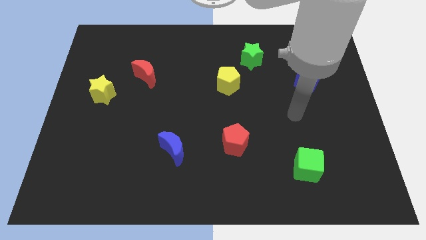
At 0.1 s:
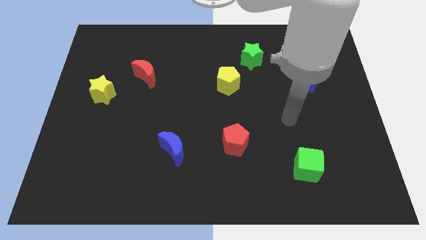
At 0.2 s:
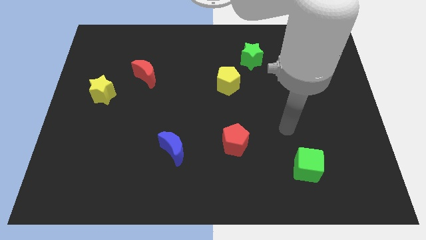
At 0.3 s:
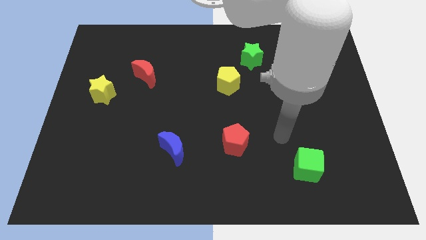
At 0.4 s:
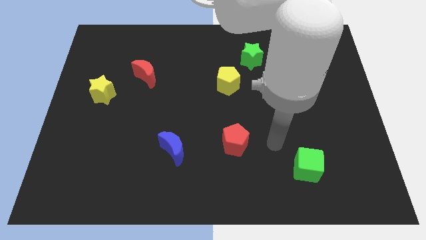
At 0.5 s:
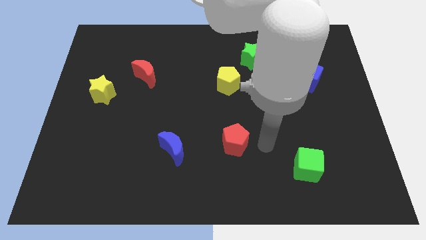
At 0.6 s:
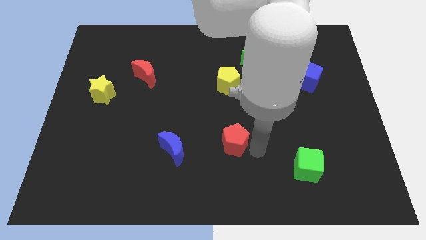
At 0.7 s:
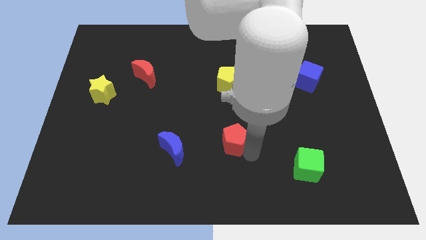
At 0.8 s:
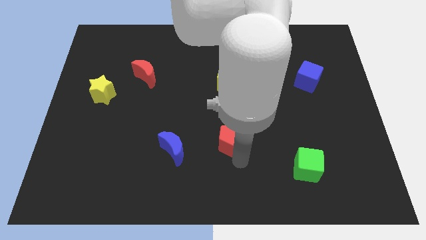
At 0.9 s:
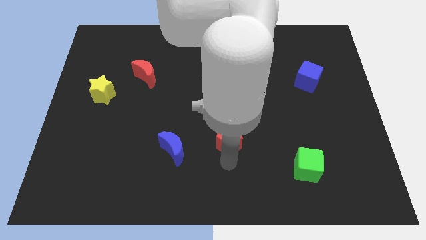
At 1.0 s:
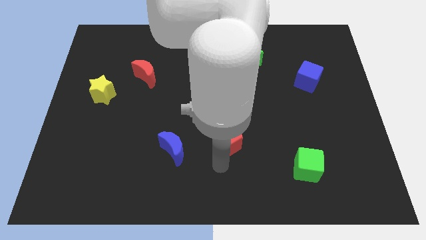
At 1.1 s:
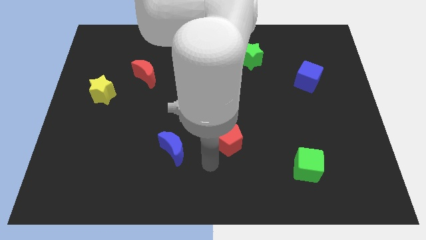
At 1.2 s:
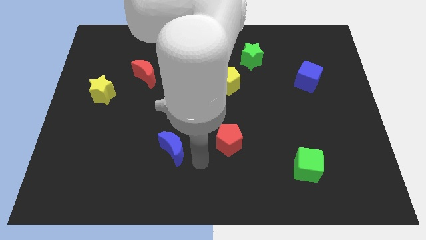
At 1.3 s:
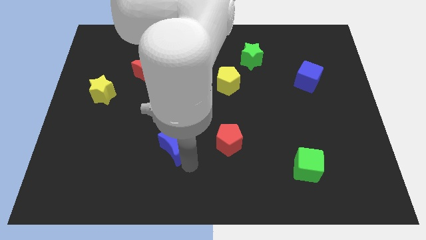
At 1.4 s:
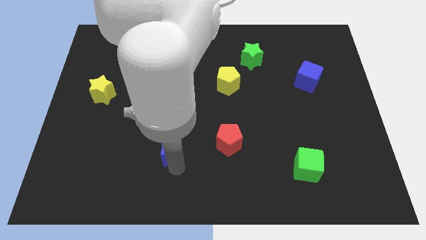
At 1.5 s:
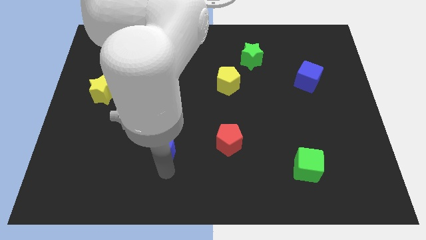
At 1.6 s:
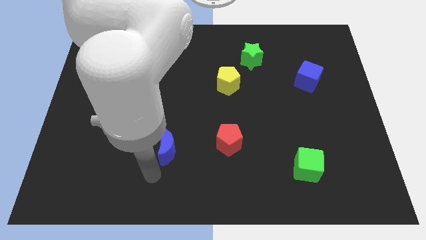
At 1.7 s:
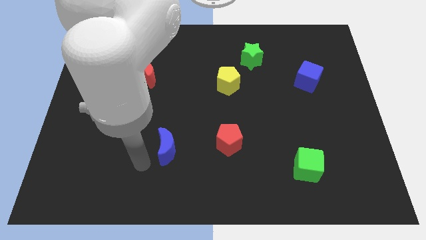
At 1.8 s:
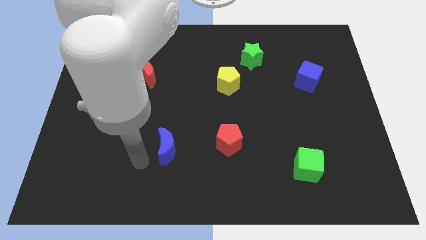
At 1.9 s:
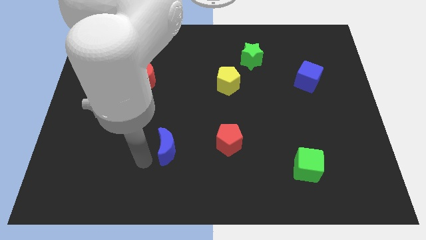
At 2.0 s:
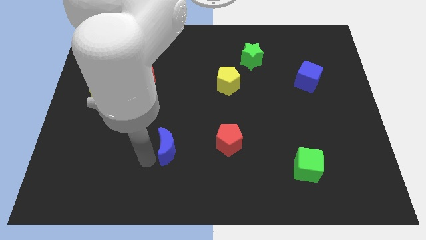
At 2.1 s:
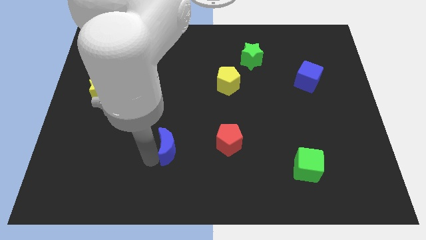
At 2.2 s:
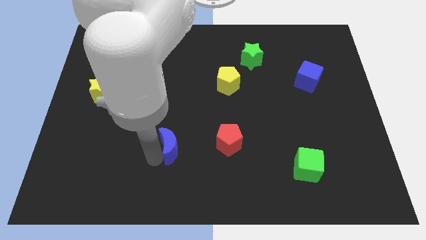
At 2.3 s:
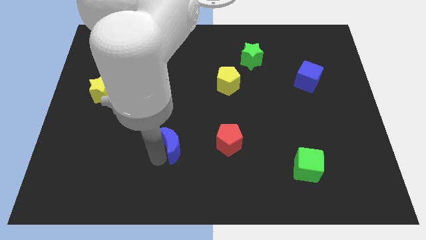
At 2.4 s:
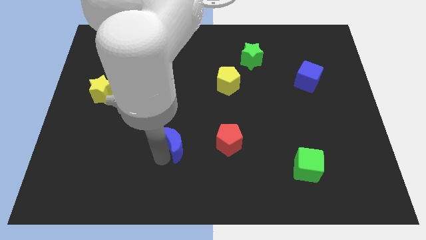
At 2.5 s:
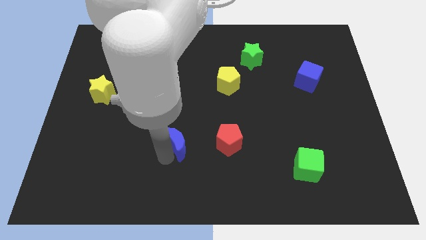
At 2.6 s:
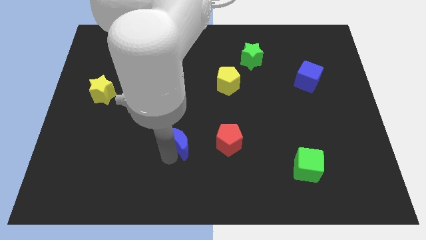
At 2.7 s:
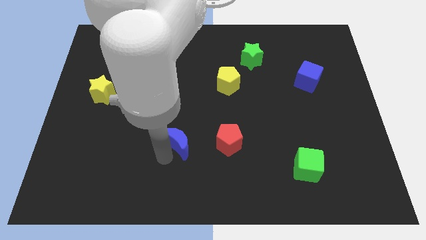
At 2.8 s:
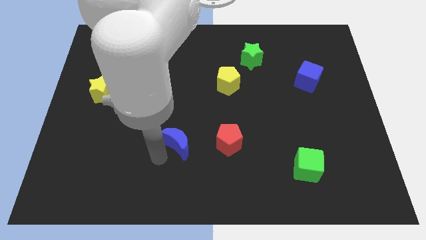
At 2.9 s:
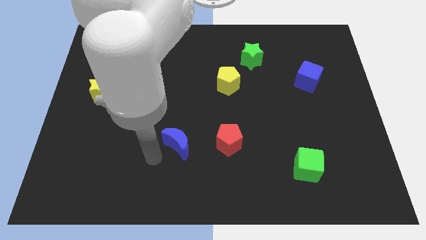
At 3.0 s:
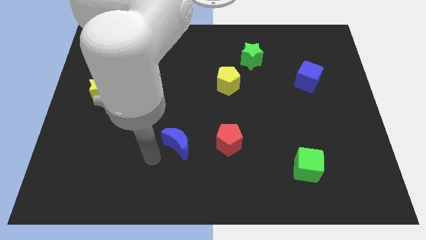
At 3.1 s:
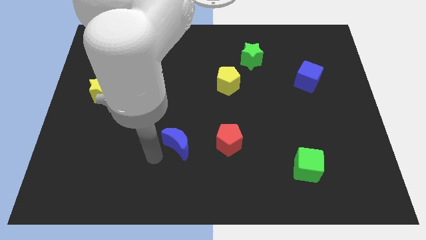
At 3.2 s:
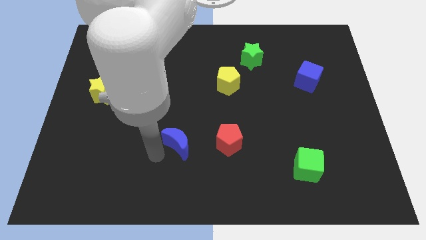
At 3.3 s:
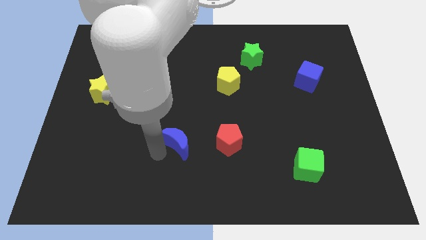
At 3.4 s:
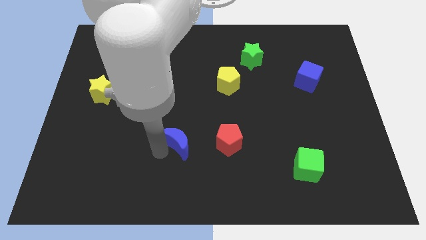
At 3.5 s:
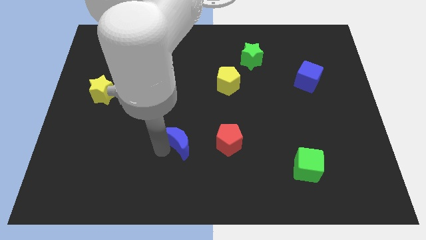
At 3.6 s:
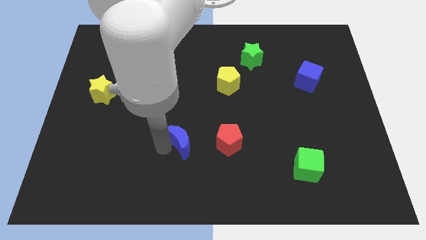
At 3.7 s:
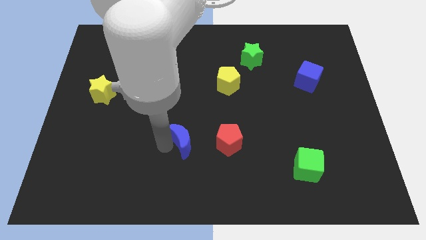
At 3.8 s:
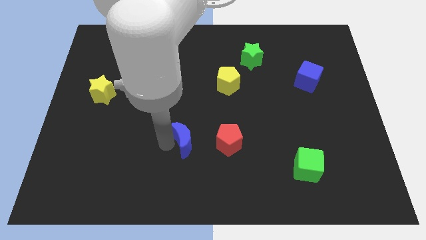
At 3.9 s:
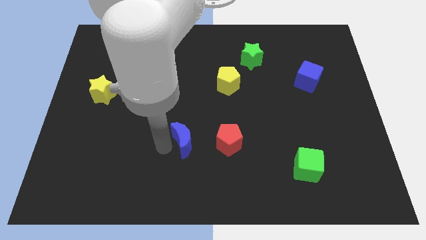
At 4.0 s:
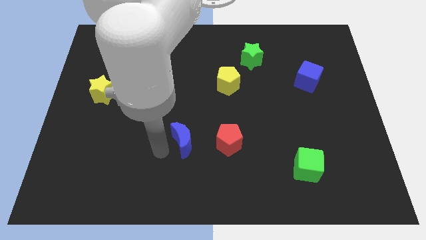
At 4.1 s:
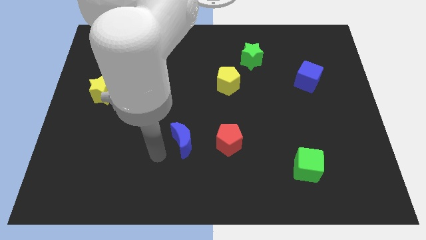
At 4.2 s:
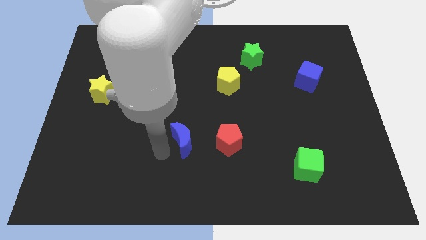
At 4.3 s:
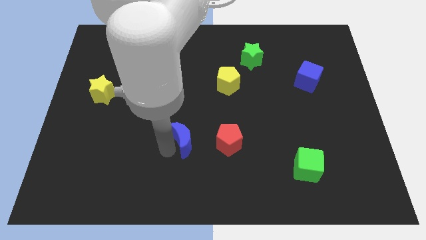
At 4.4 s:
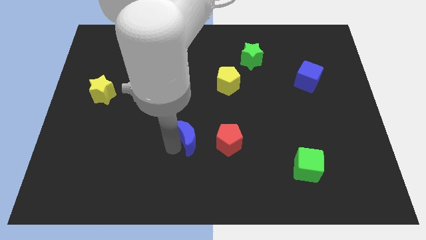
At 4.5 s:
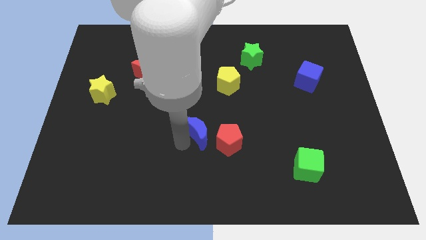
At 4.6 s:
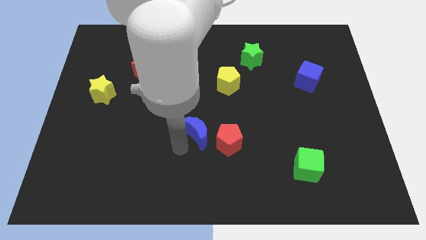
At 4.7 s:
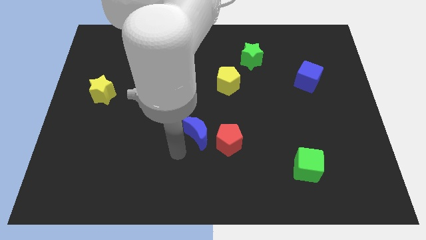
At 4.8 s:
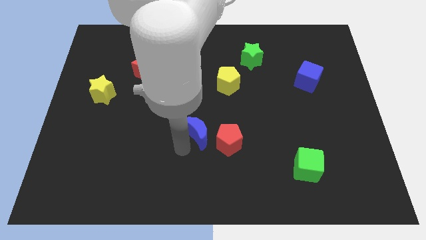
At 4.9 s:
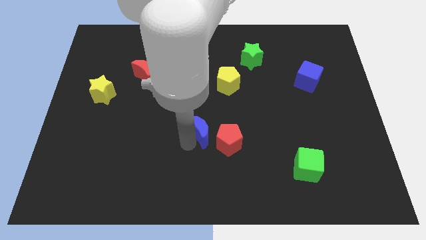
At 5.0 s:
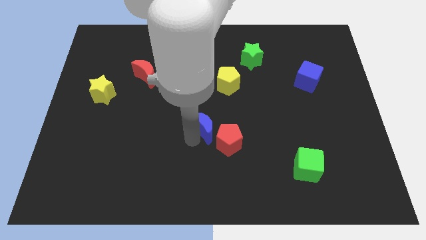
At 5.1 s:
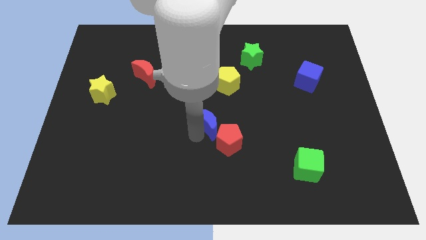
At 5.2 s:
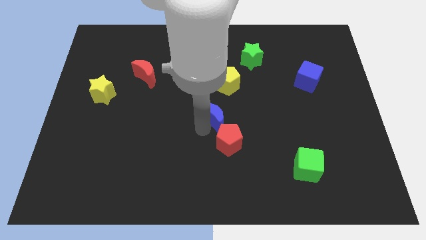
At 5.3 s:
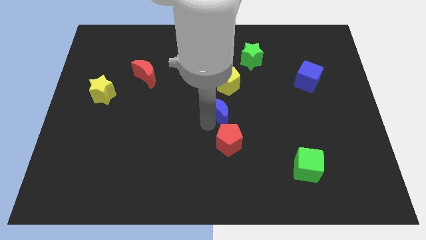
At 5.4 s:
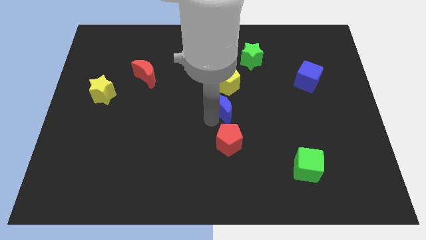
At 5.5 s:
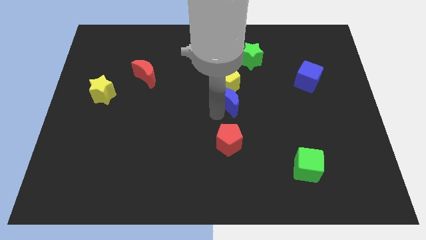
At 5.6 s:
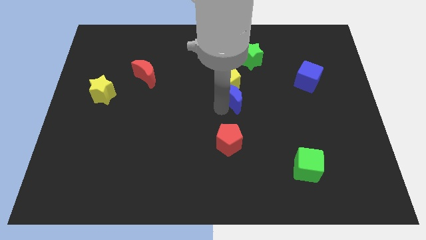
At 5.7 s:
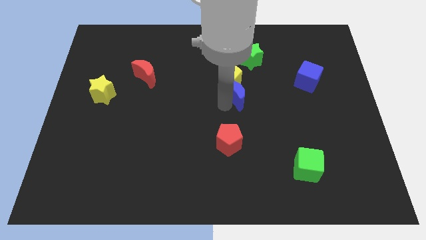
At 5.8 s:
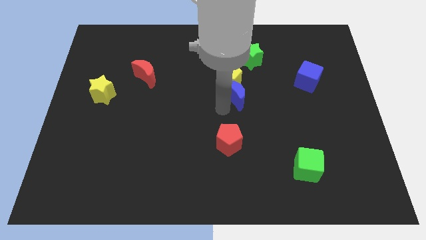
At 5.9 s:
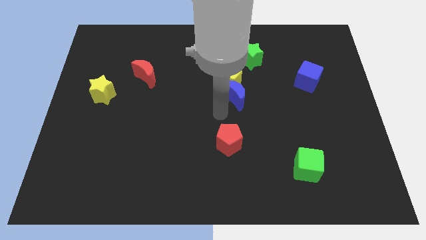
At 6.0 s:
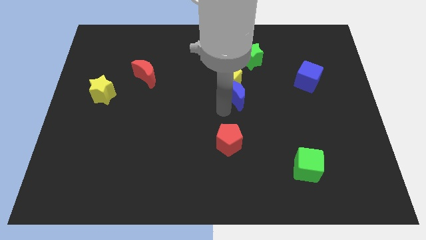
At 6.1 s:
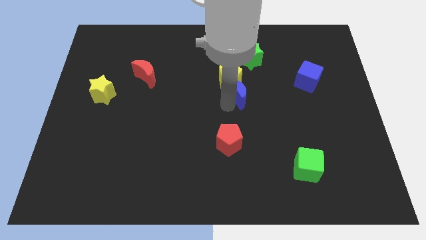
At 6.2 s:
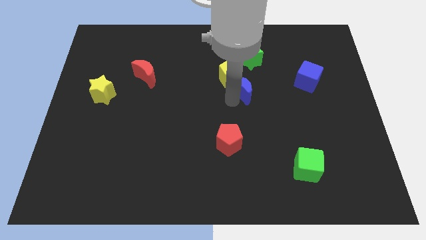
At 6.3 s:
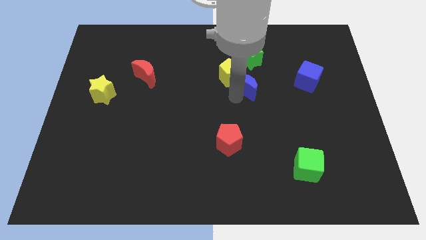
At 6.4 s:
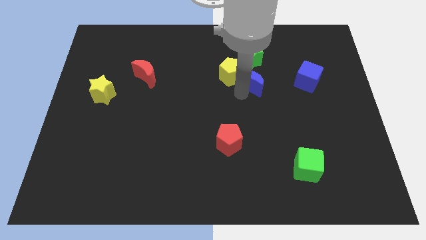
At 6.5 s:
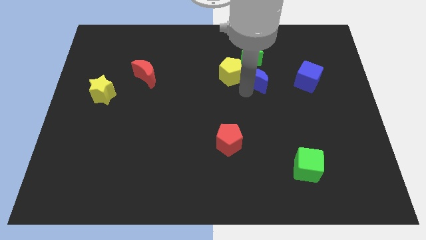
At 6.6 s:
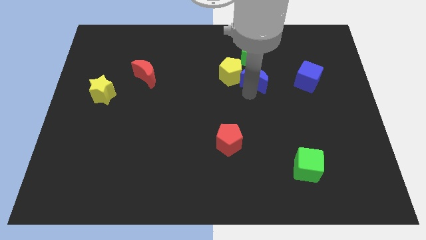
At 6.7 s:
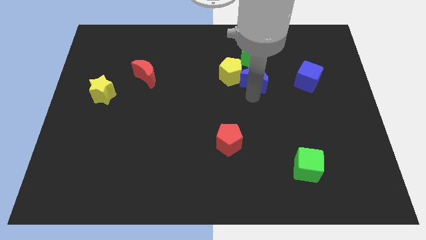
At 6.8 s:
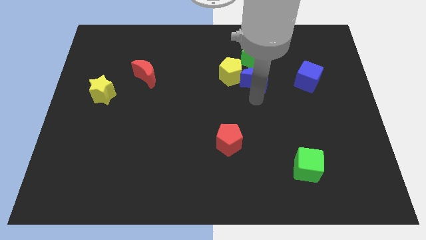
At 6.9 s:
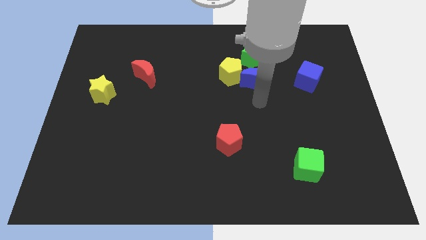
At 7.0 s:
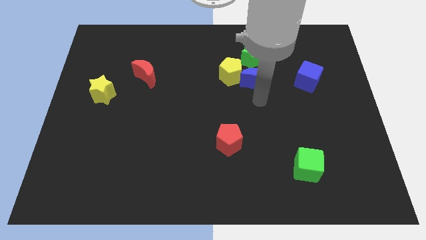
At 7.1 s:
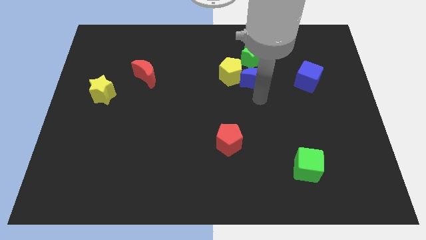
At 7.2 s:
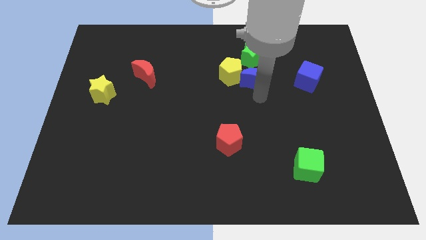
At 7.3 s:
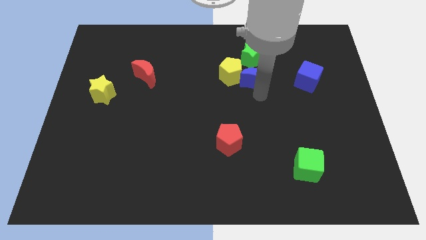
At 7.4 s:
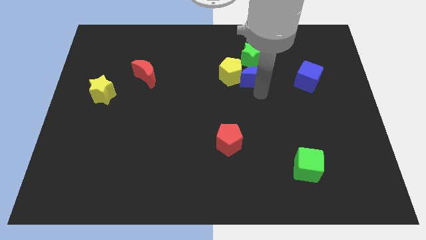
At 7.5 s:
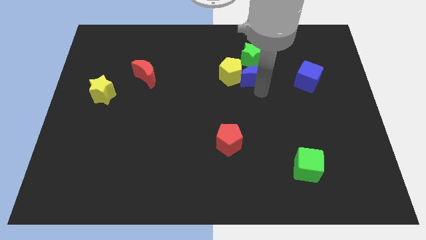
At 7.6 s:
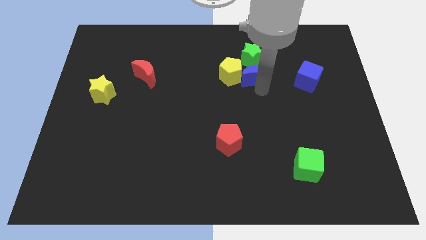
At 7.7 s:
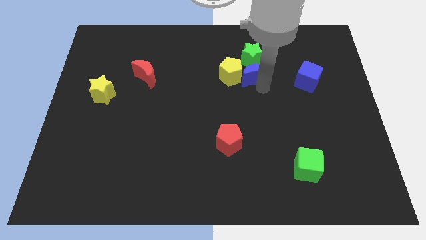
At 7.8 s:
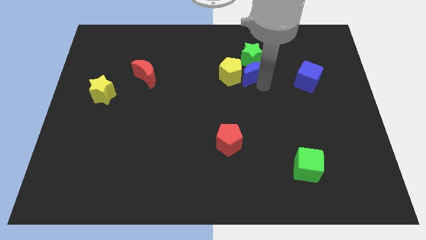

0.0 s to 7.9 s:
slide the blue moon close to the green star
